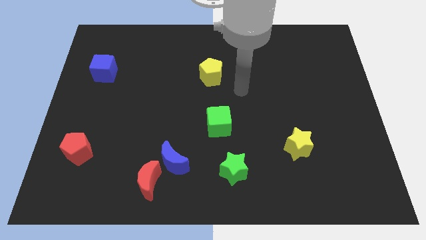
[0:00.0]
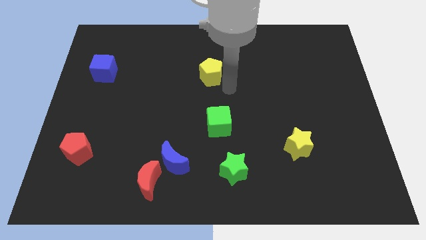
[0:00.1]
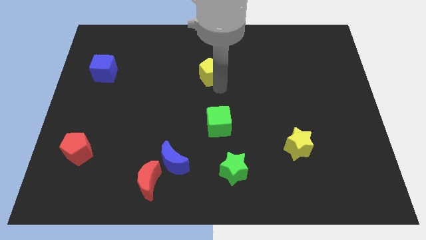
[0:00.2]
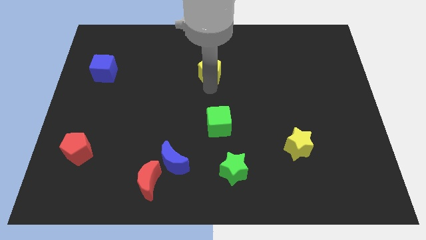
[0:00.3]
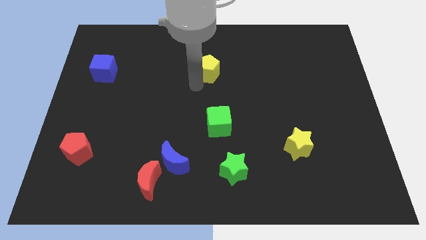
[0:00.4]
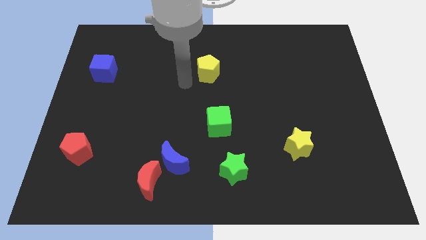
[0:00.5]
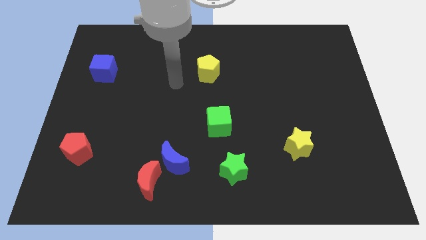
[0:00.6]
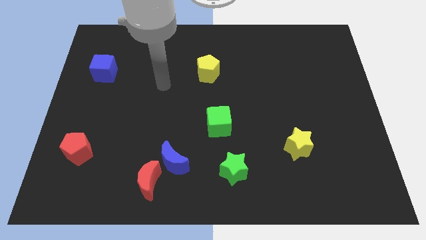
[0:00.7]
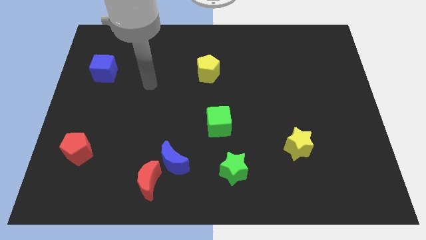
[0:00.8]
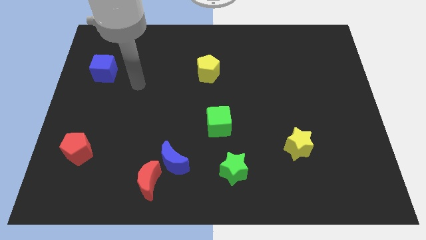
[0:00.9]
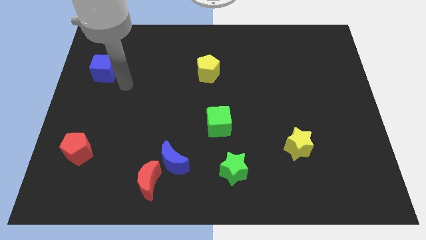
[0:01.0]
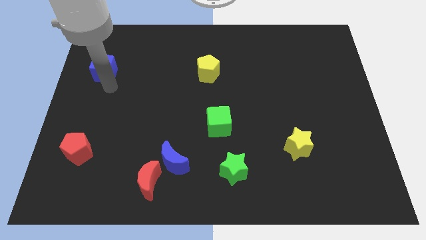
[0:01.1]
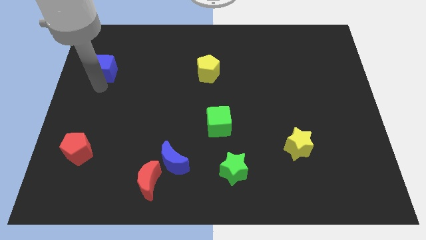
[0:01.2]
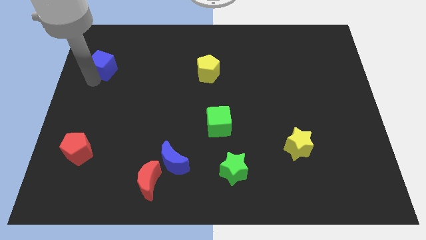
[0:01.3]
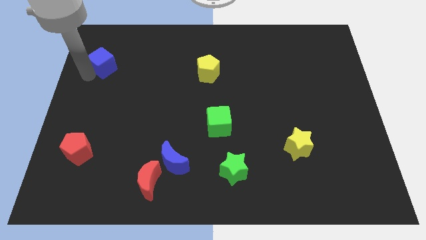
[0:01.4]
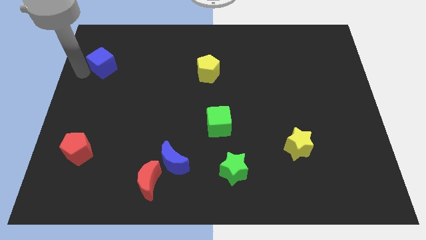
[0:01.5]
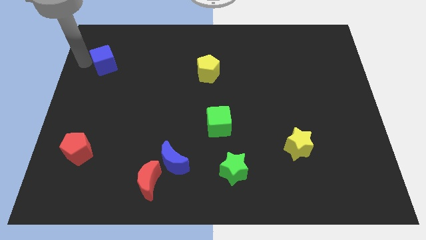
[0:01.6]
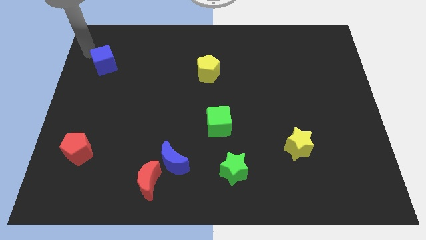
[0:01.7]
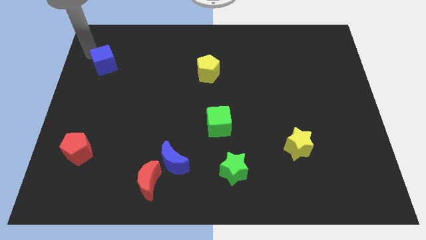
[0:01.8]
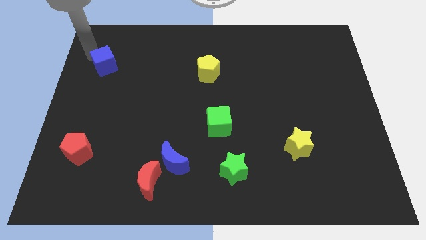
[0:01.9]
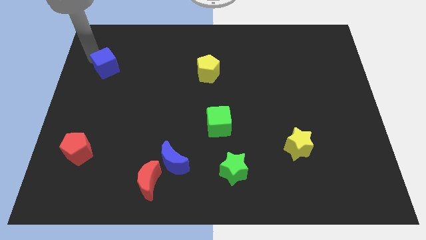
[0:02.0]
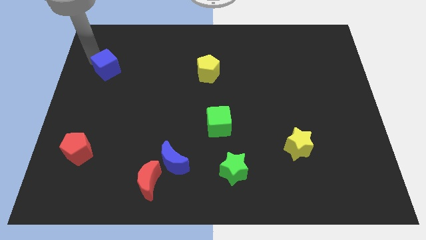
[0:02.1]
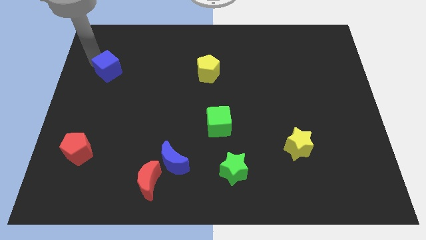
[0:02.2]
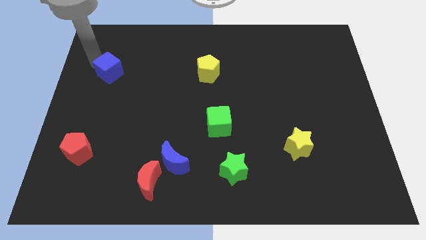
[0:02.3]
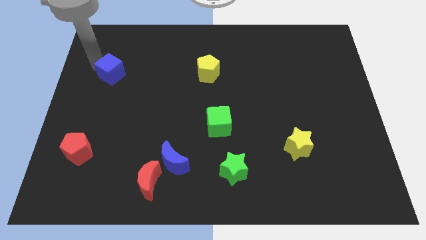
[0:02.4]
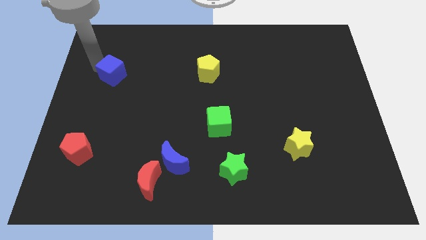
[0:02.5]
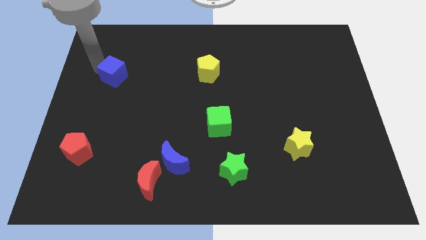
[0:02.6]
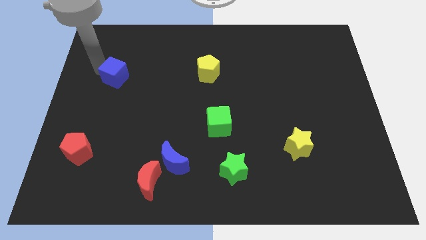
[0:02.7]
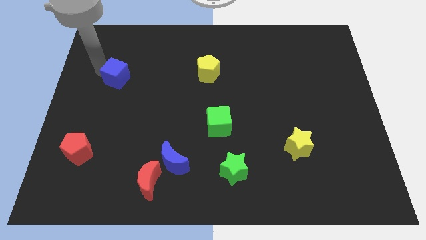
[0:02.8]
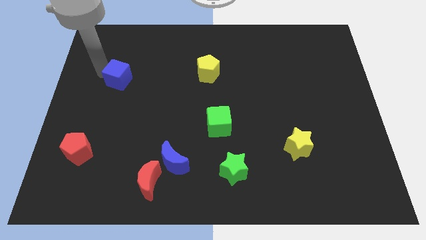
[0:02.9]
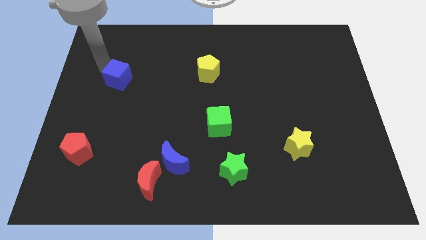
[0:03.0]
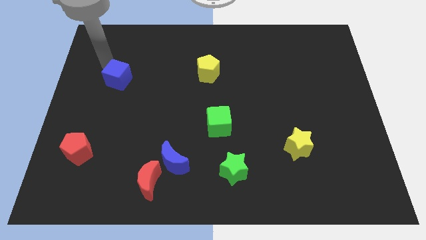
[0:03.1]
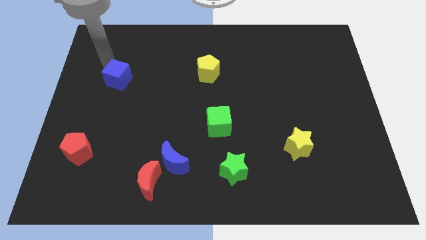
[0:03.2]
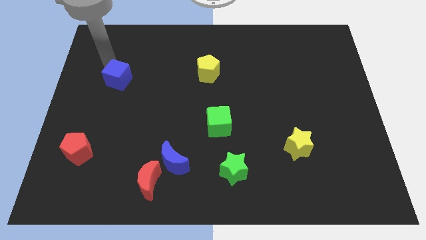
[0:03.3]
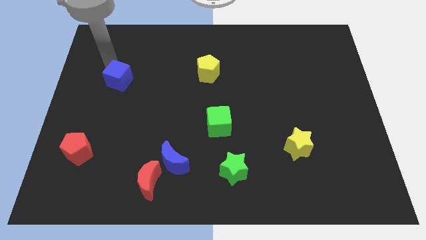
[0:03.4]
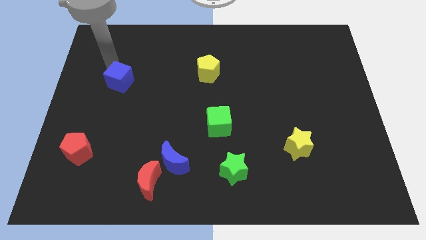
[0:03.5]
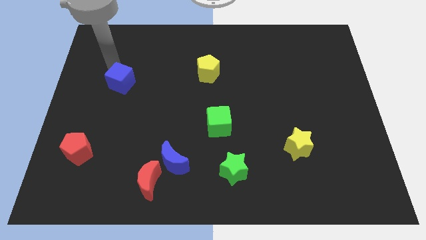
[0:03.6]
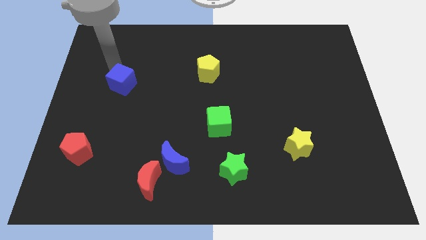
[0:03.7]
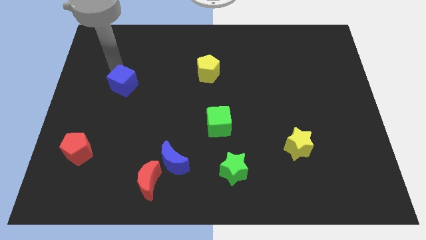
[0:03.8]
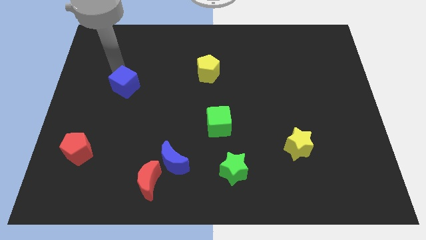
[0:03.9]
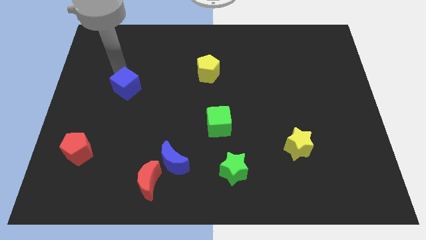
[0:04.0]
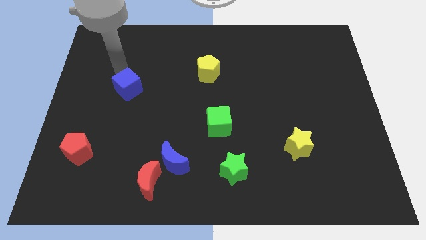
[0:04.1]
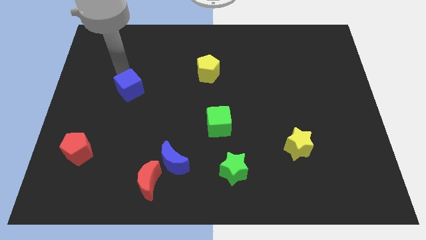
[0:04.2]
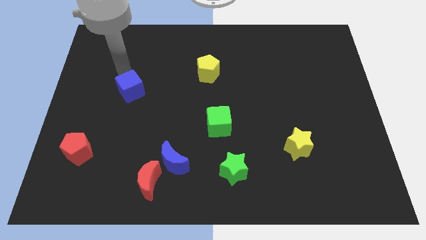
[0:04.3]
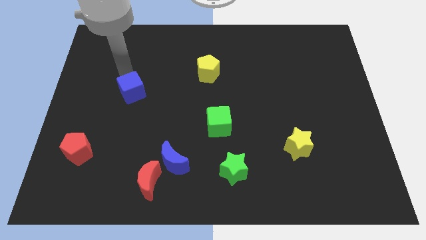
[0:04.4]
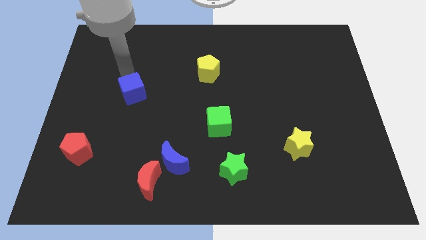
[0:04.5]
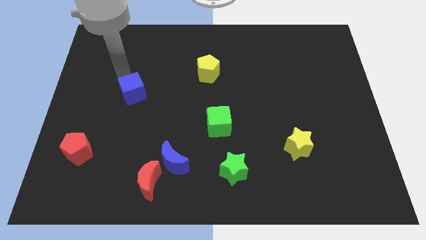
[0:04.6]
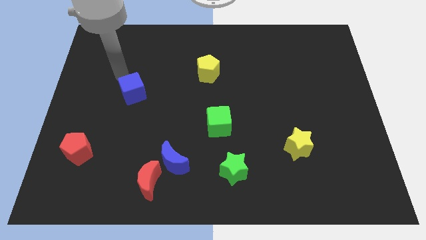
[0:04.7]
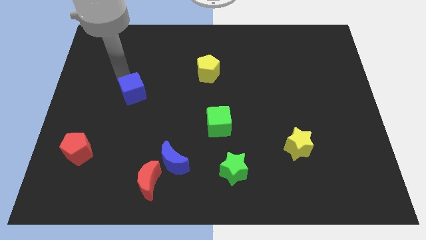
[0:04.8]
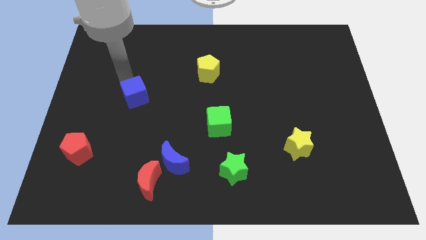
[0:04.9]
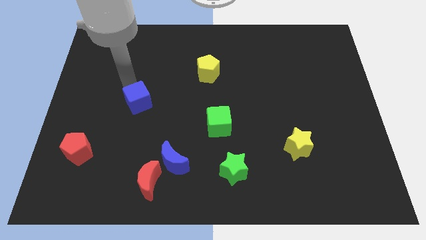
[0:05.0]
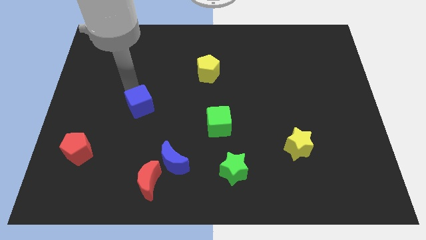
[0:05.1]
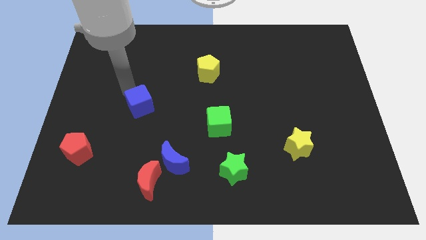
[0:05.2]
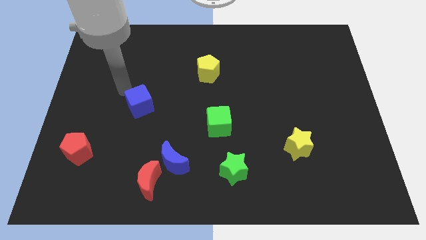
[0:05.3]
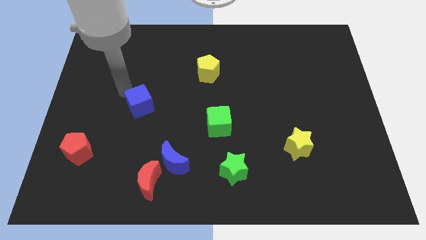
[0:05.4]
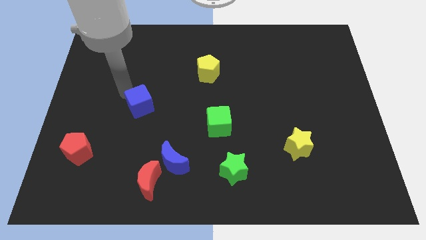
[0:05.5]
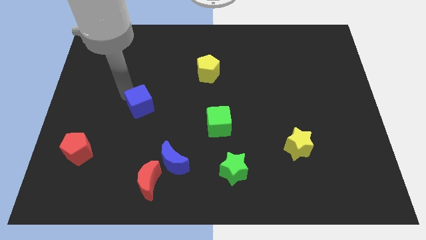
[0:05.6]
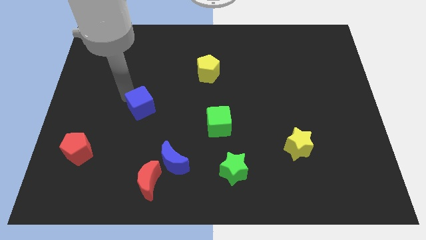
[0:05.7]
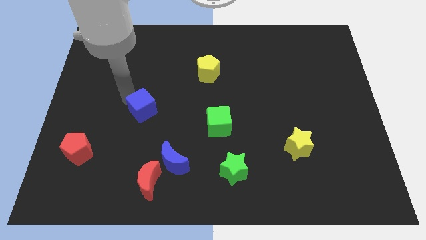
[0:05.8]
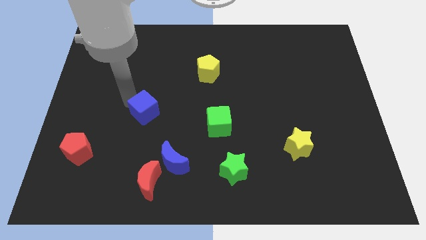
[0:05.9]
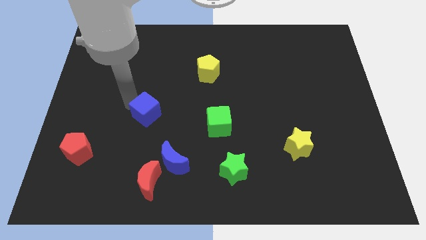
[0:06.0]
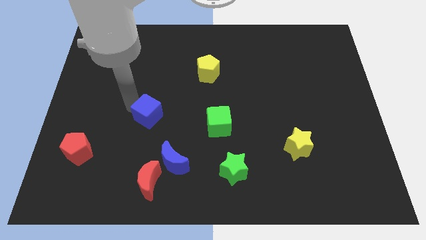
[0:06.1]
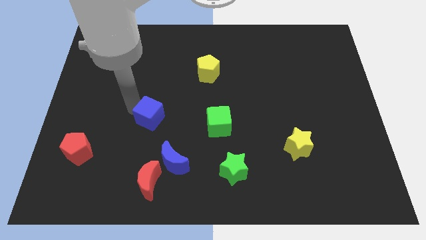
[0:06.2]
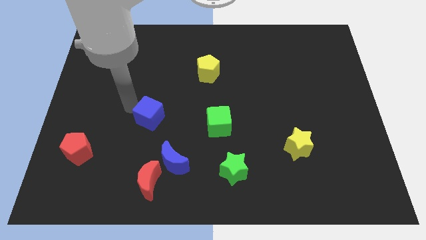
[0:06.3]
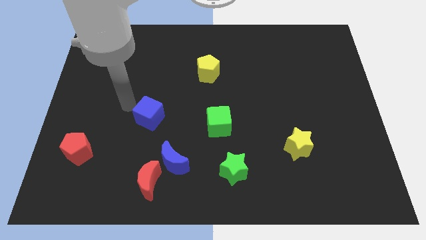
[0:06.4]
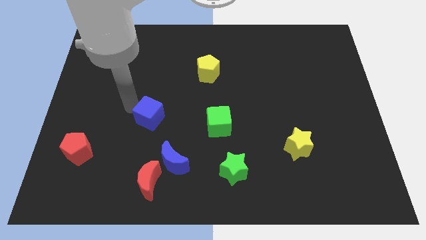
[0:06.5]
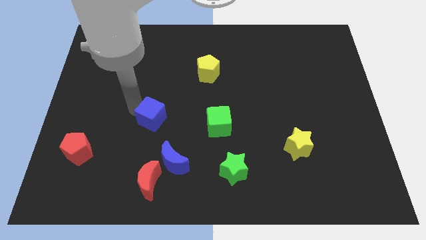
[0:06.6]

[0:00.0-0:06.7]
slide the blue cube diagonally down and to the right

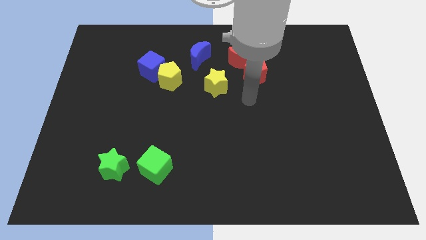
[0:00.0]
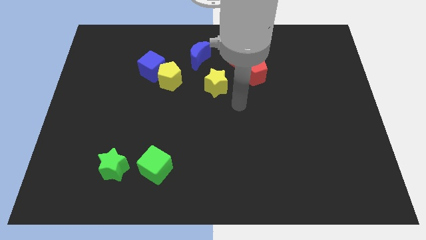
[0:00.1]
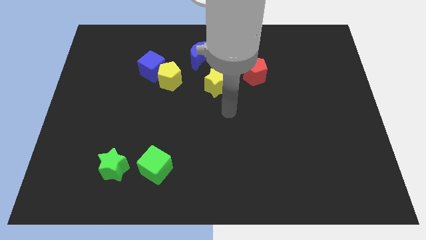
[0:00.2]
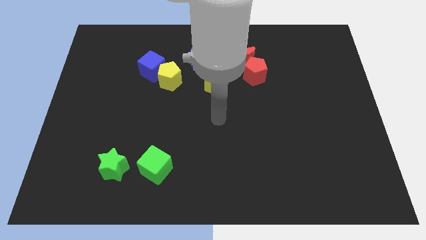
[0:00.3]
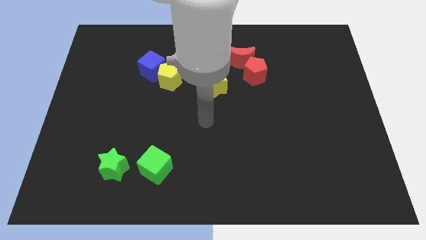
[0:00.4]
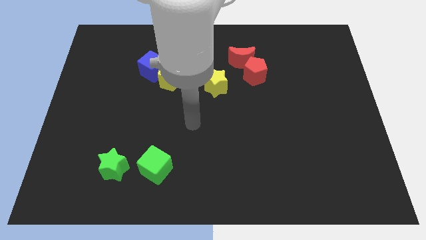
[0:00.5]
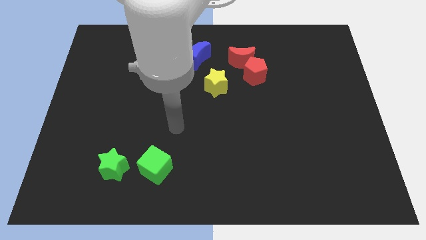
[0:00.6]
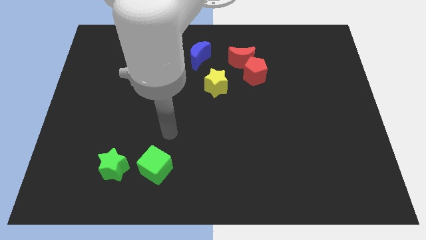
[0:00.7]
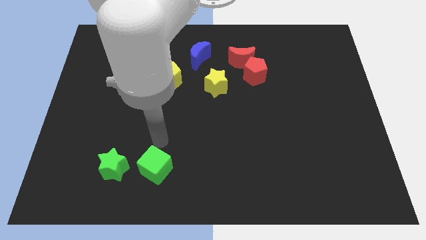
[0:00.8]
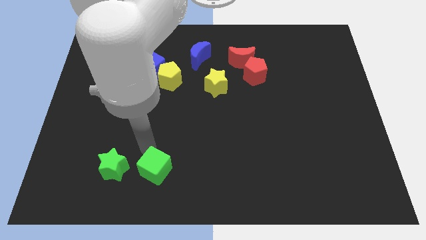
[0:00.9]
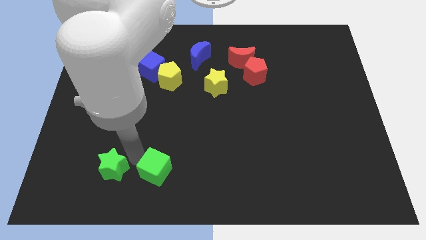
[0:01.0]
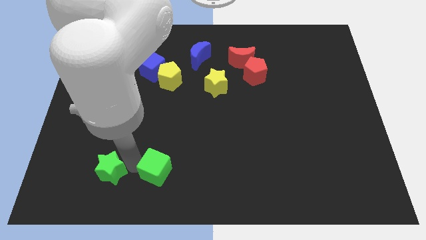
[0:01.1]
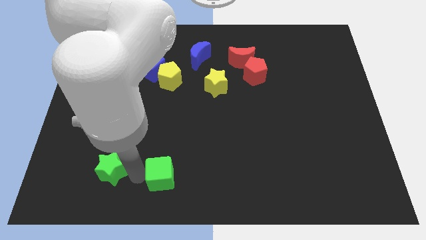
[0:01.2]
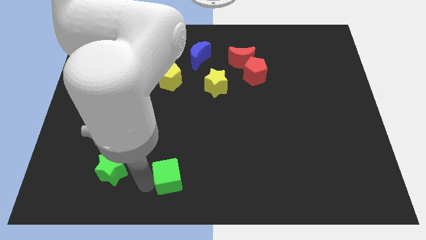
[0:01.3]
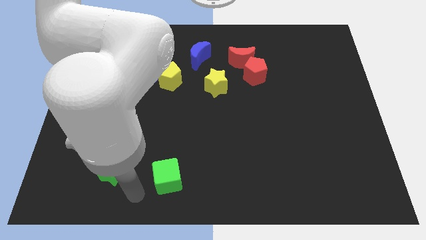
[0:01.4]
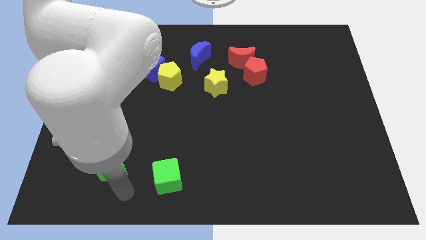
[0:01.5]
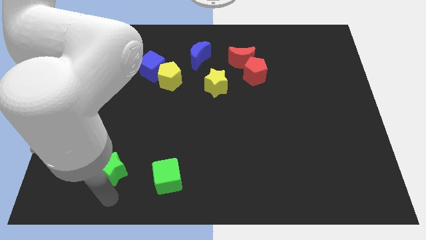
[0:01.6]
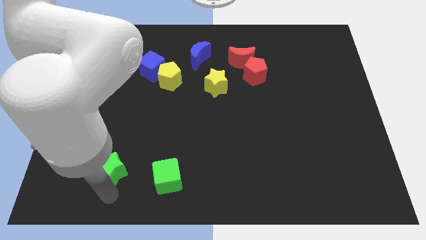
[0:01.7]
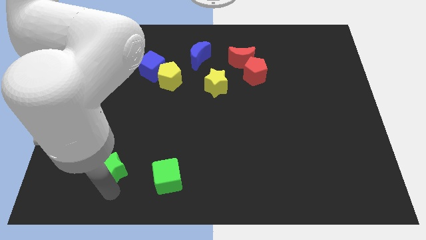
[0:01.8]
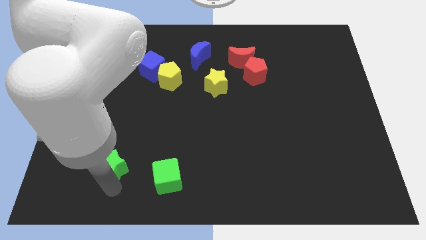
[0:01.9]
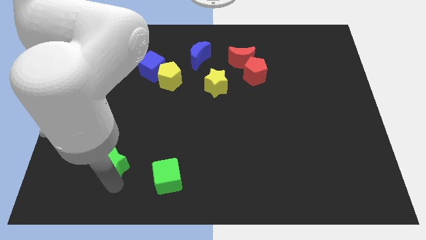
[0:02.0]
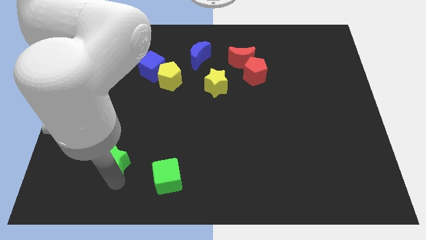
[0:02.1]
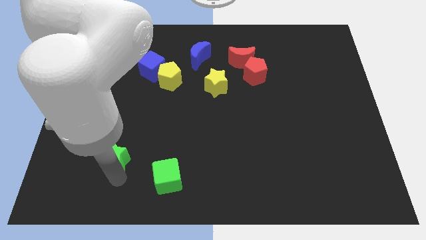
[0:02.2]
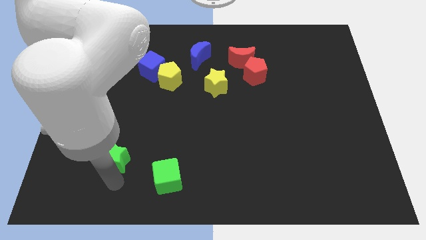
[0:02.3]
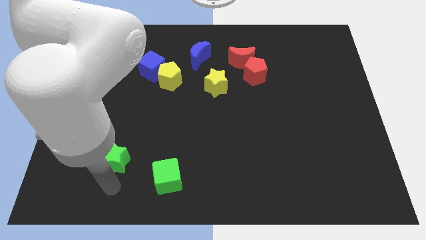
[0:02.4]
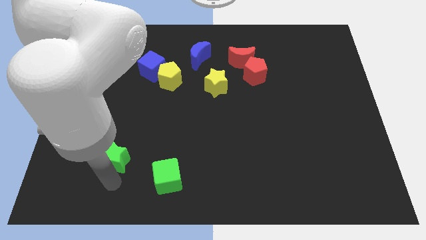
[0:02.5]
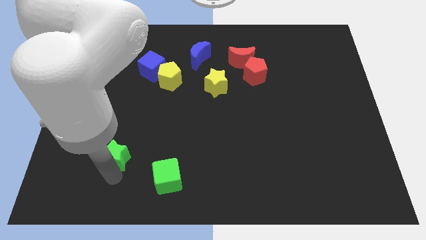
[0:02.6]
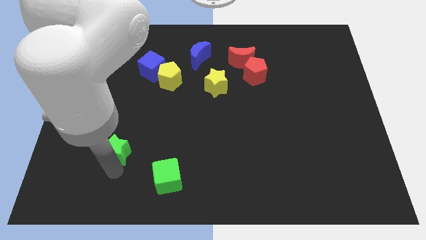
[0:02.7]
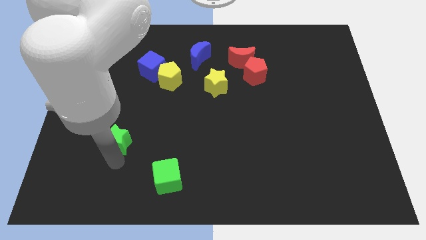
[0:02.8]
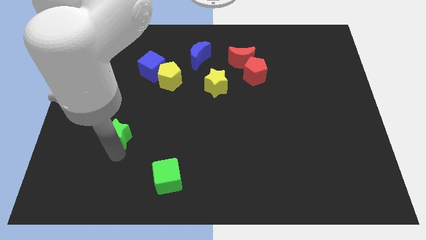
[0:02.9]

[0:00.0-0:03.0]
slightly push the green star up
